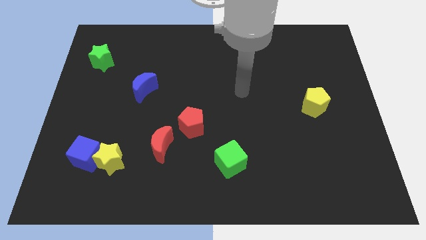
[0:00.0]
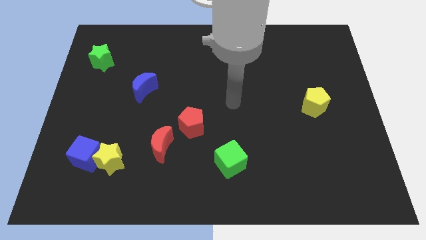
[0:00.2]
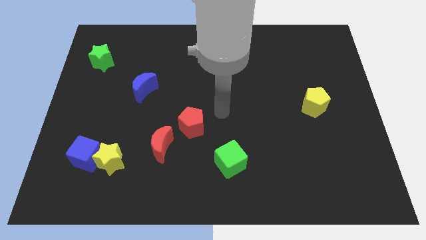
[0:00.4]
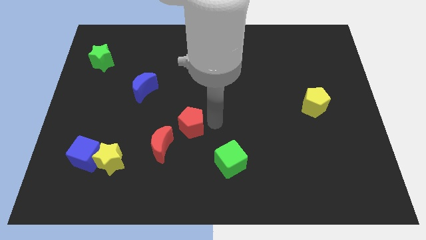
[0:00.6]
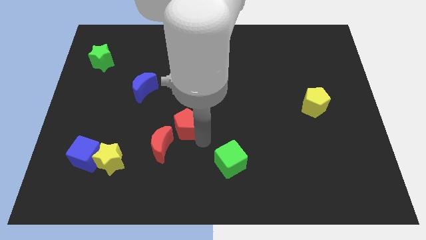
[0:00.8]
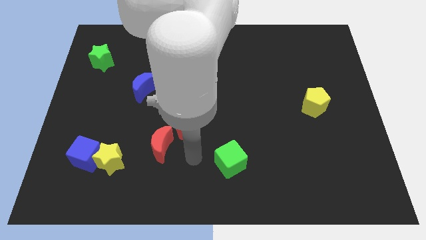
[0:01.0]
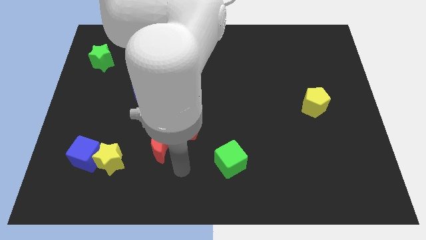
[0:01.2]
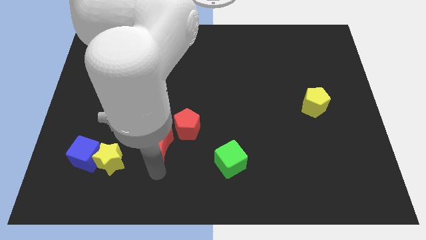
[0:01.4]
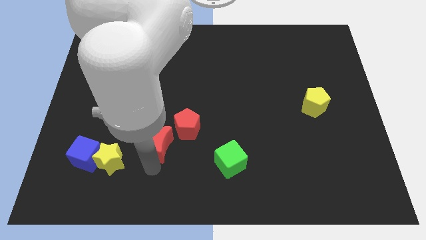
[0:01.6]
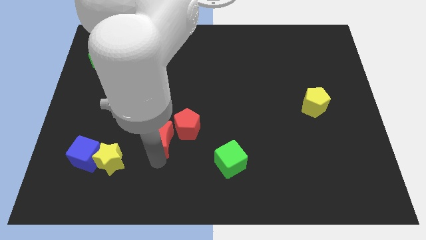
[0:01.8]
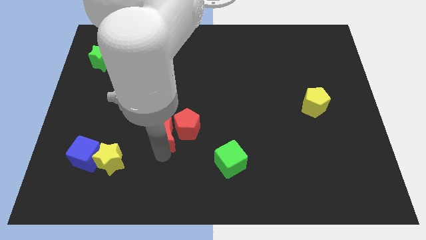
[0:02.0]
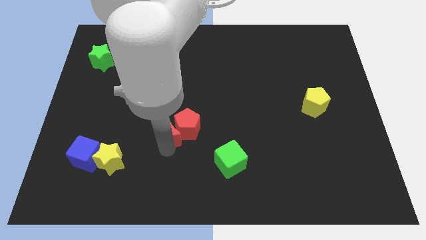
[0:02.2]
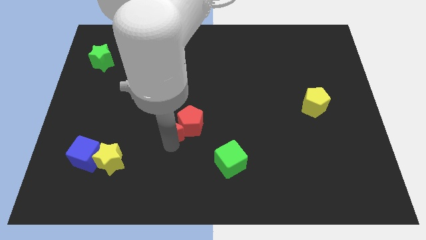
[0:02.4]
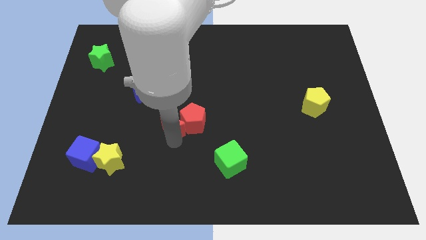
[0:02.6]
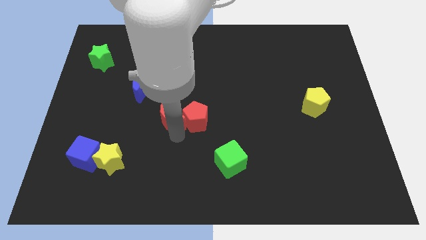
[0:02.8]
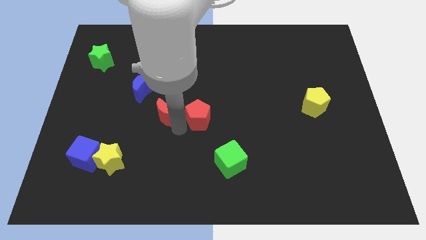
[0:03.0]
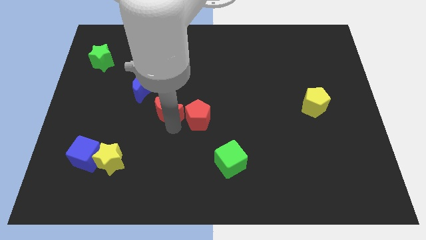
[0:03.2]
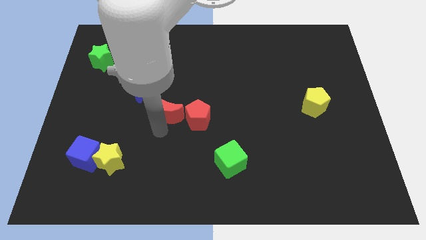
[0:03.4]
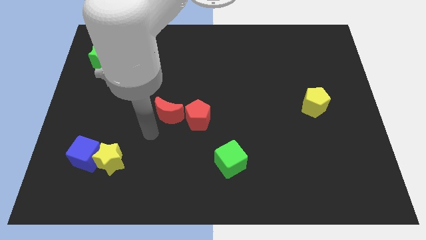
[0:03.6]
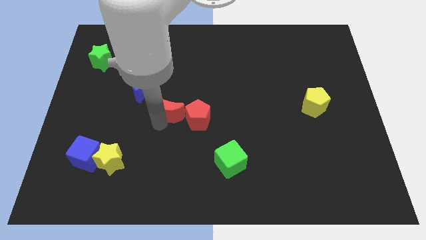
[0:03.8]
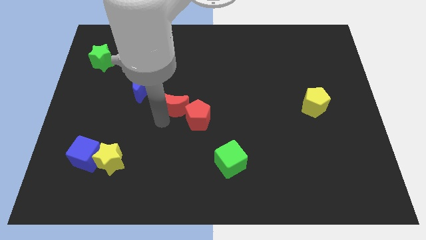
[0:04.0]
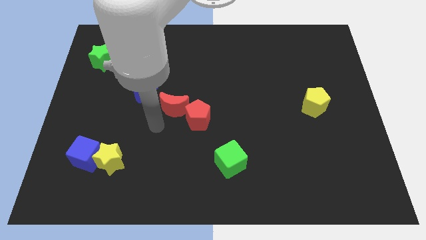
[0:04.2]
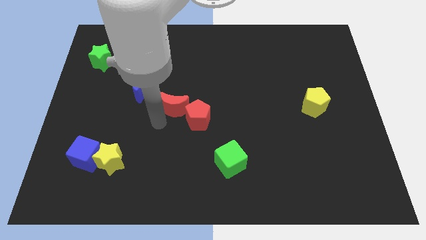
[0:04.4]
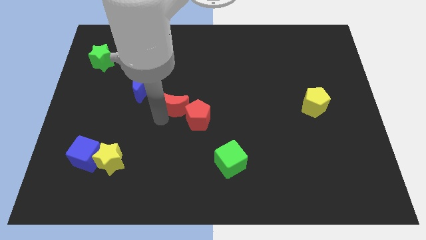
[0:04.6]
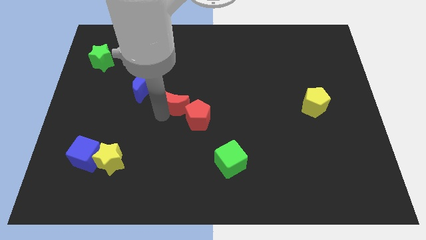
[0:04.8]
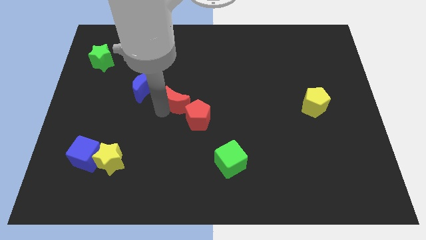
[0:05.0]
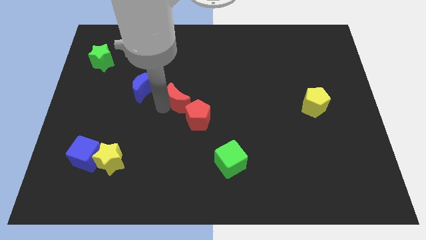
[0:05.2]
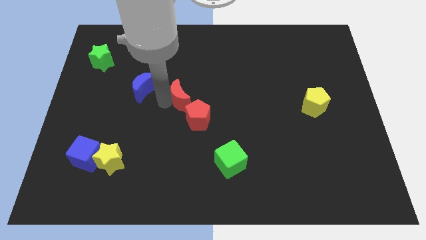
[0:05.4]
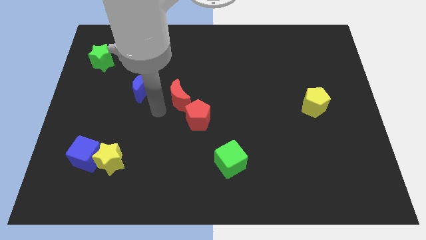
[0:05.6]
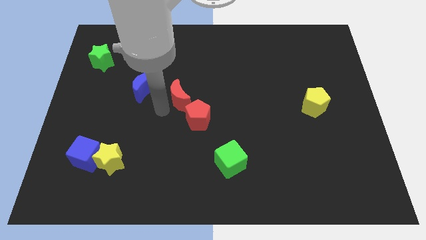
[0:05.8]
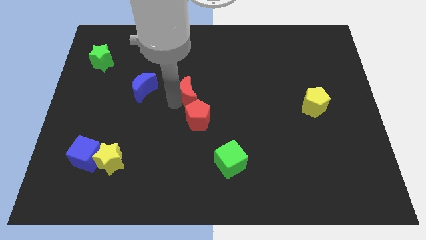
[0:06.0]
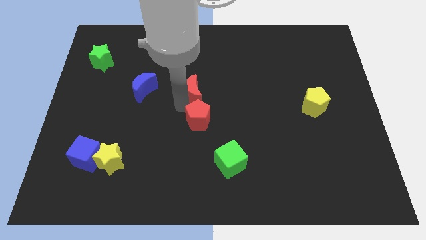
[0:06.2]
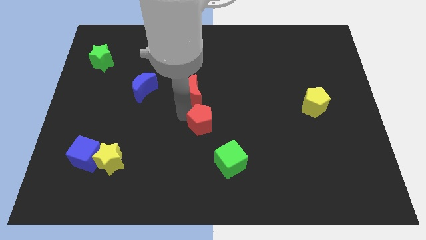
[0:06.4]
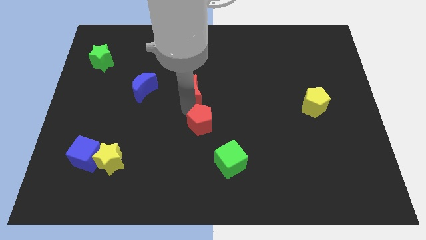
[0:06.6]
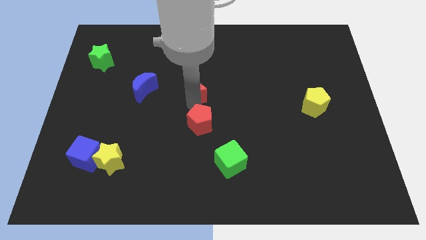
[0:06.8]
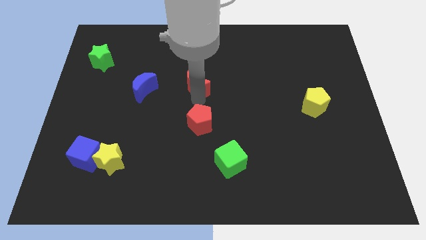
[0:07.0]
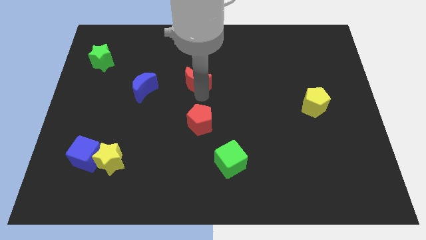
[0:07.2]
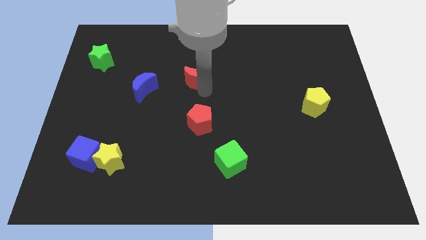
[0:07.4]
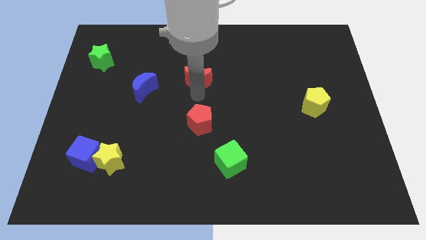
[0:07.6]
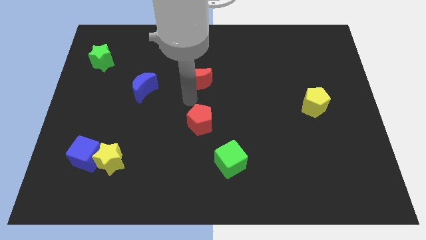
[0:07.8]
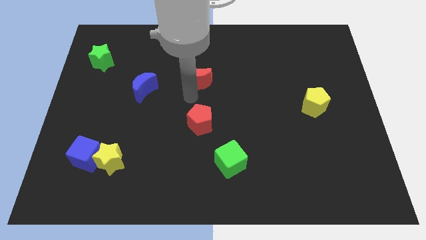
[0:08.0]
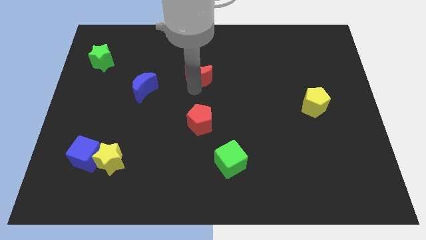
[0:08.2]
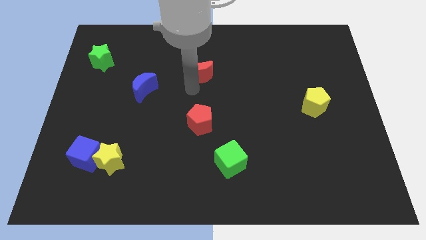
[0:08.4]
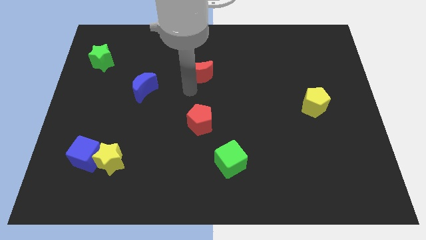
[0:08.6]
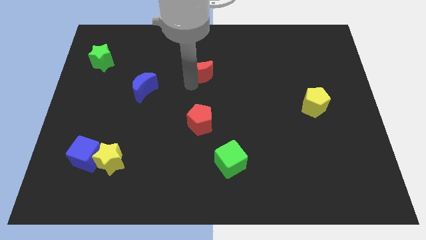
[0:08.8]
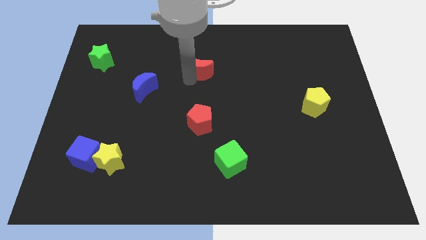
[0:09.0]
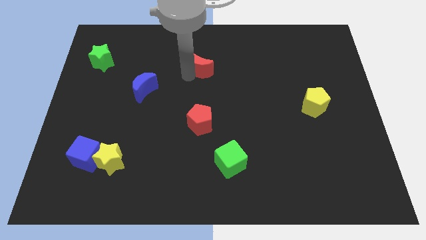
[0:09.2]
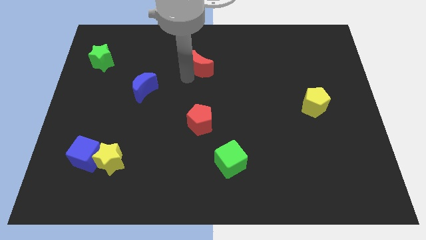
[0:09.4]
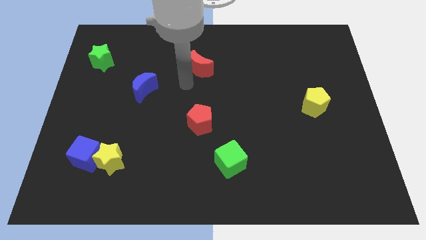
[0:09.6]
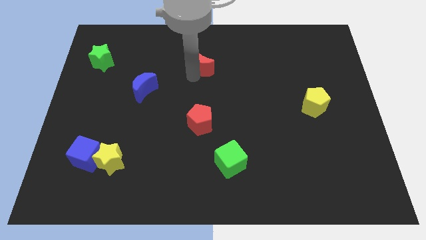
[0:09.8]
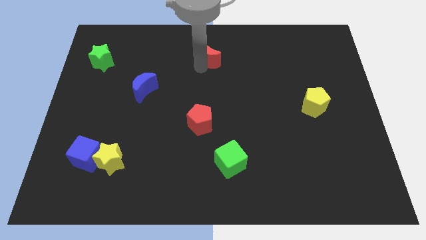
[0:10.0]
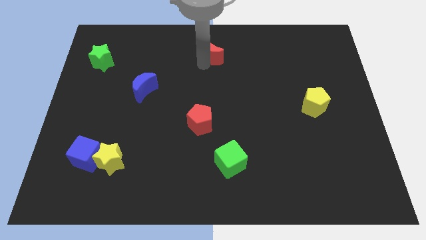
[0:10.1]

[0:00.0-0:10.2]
put the red moon to the top

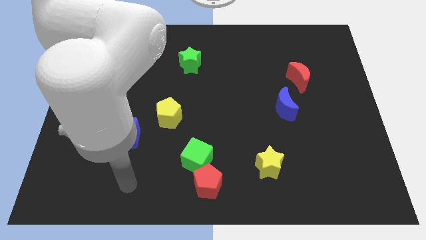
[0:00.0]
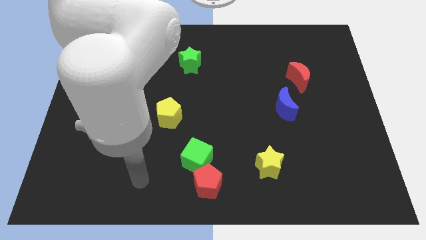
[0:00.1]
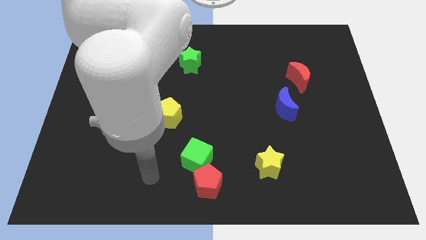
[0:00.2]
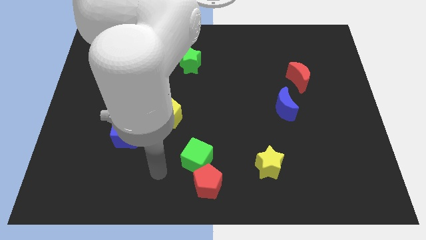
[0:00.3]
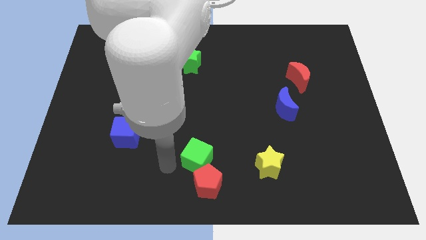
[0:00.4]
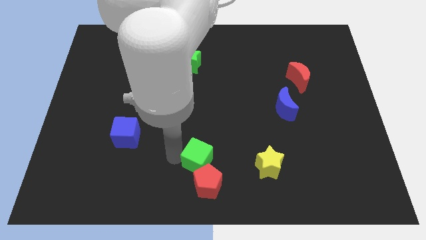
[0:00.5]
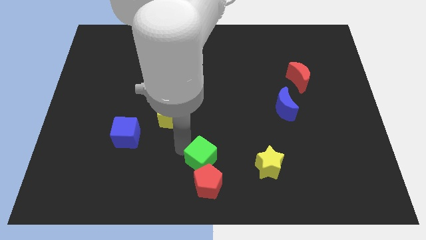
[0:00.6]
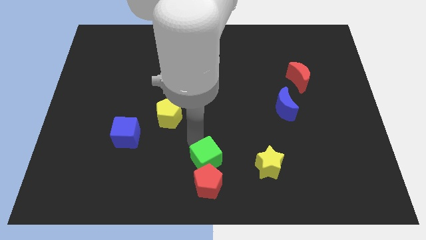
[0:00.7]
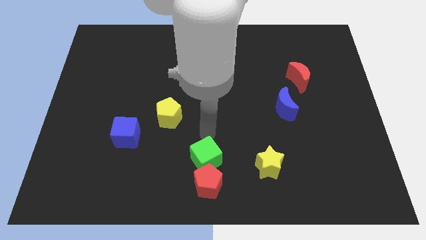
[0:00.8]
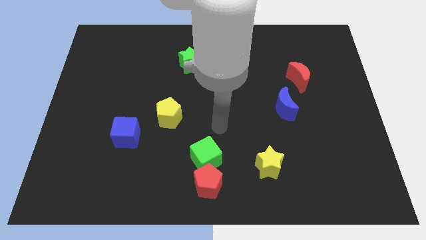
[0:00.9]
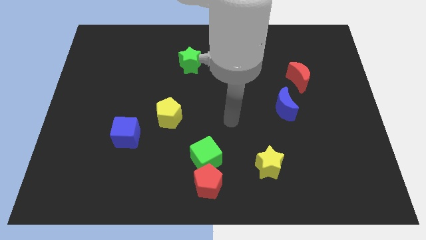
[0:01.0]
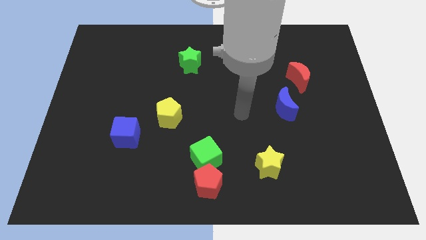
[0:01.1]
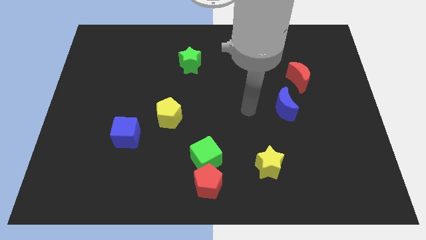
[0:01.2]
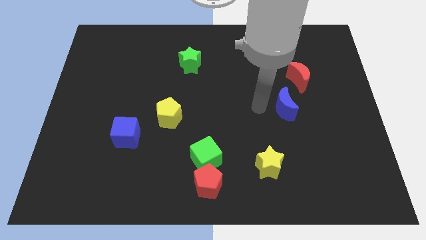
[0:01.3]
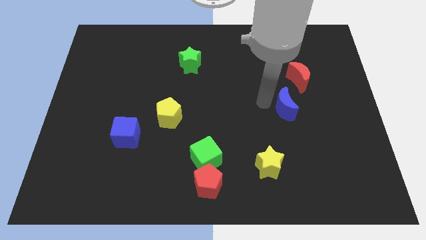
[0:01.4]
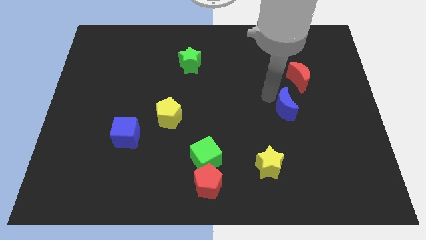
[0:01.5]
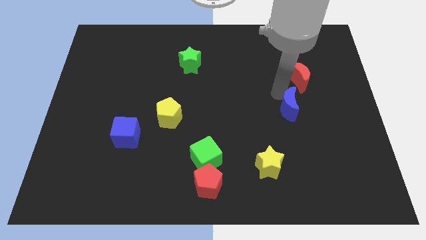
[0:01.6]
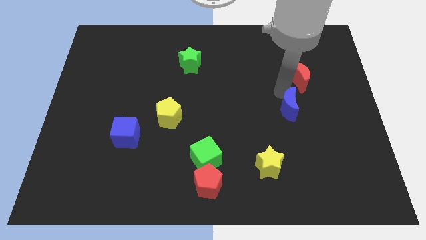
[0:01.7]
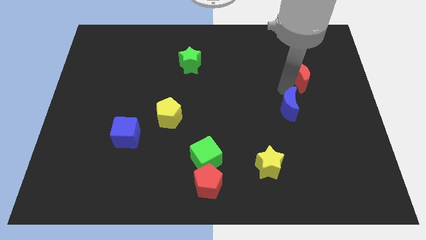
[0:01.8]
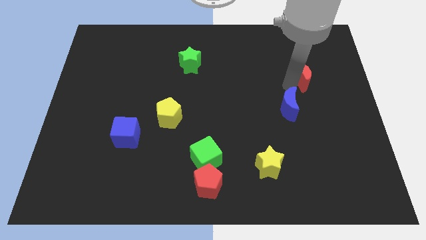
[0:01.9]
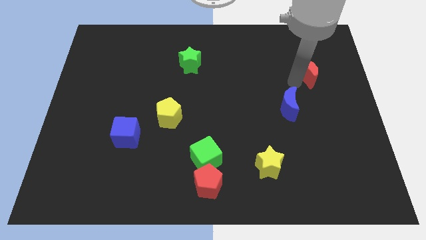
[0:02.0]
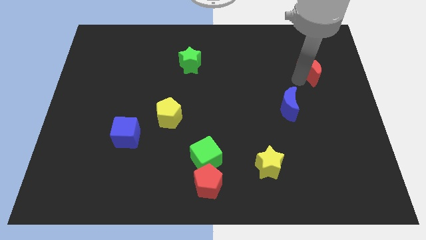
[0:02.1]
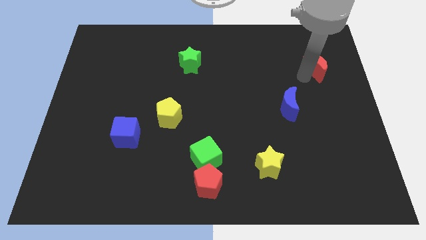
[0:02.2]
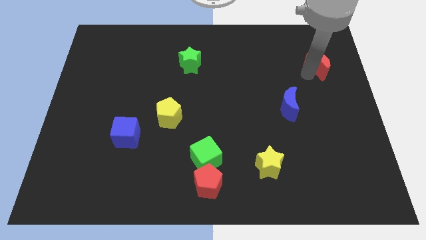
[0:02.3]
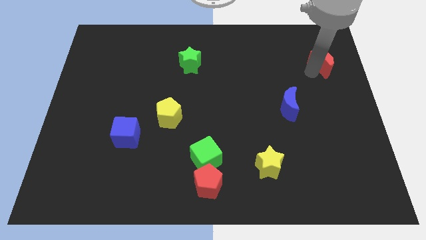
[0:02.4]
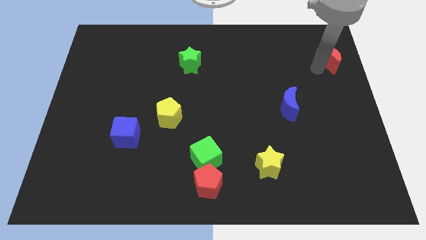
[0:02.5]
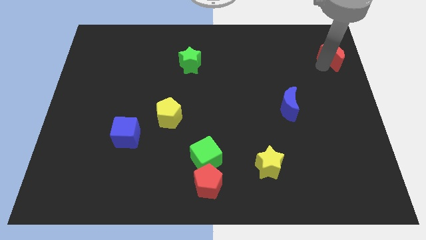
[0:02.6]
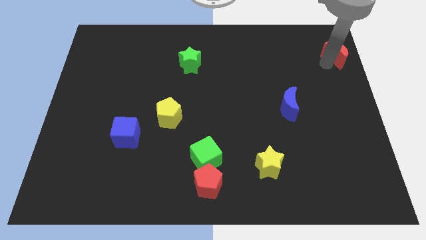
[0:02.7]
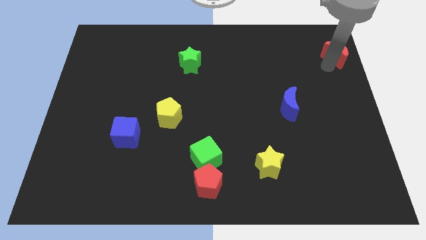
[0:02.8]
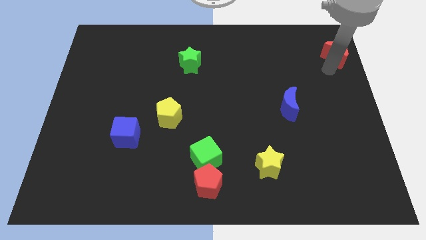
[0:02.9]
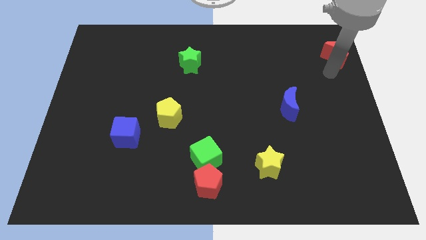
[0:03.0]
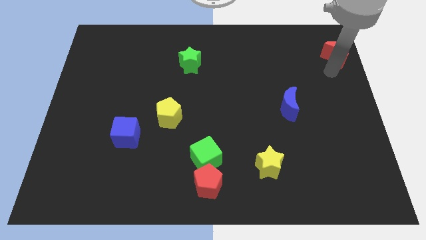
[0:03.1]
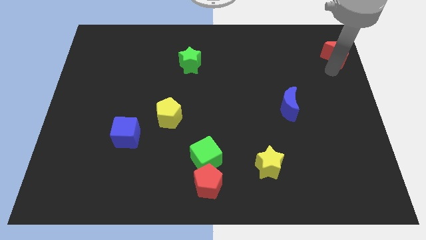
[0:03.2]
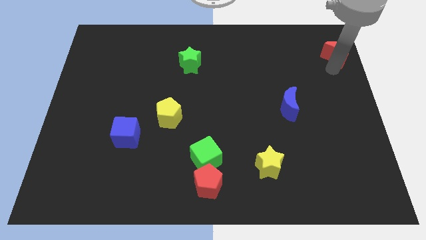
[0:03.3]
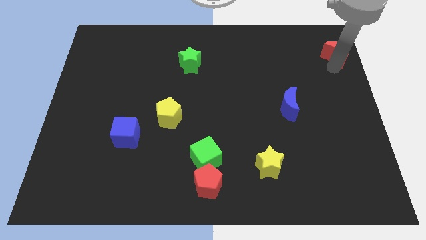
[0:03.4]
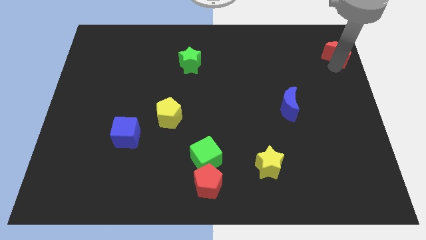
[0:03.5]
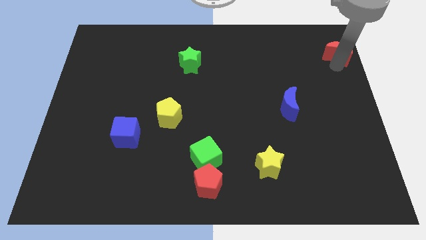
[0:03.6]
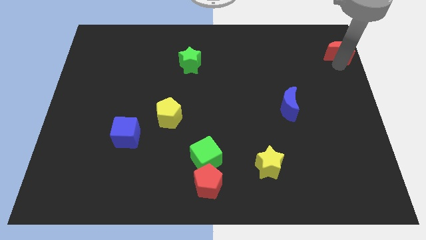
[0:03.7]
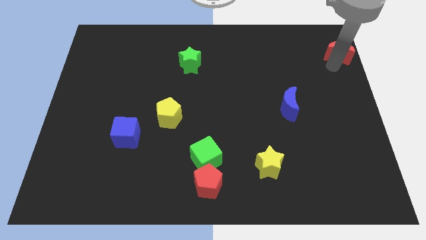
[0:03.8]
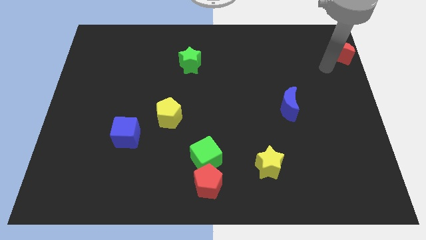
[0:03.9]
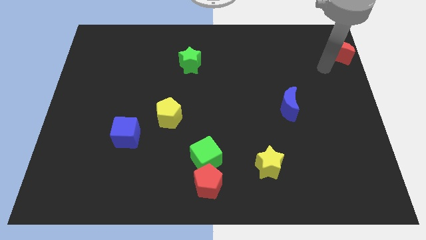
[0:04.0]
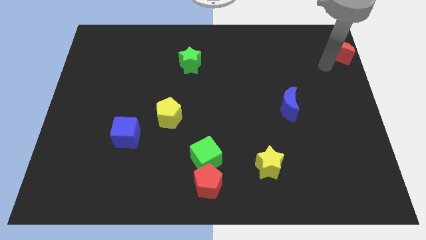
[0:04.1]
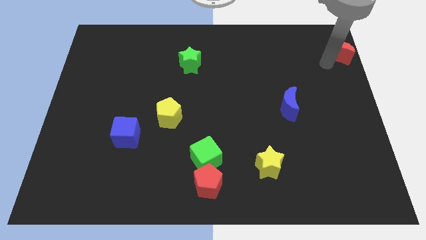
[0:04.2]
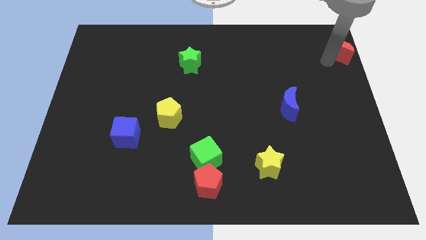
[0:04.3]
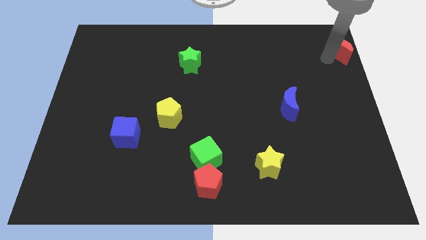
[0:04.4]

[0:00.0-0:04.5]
slide the red moon to the upper right corner
